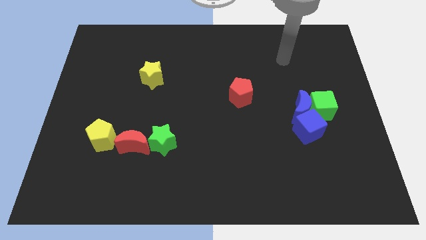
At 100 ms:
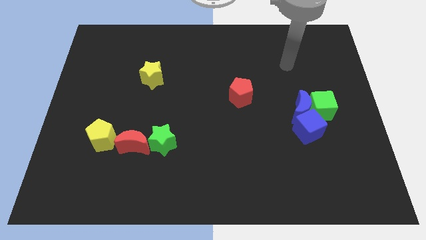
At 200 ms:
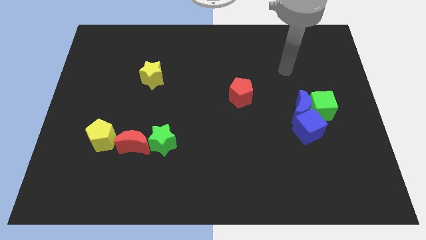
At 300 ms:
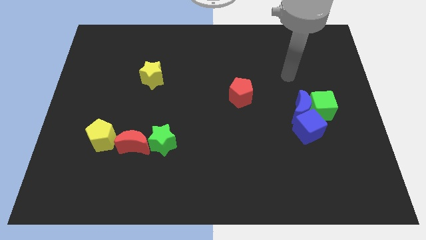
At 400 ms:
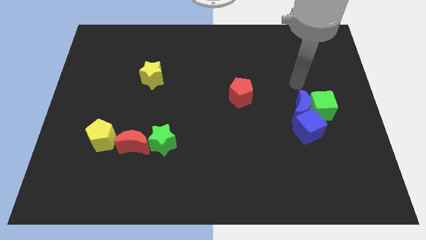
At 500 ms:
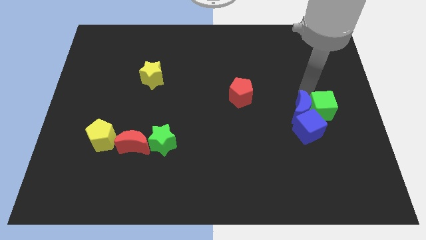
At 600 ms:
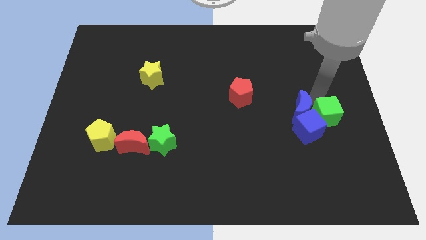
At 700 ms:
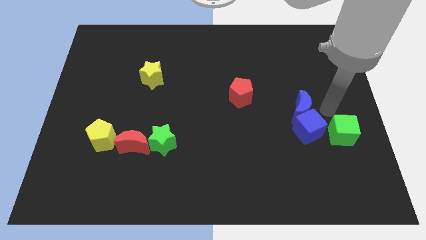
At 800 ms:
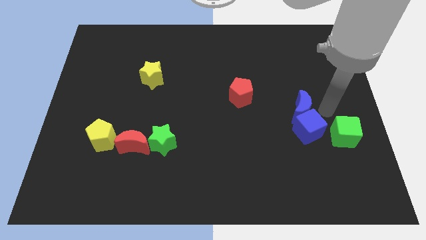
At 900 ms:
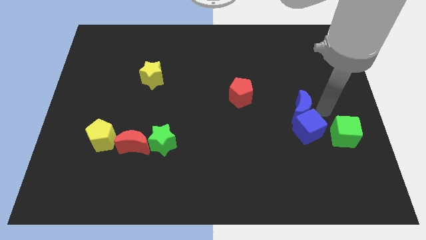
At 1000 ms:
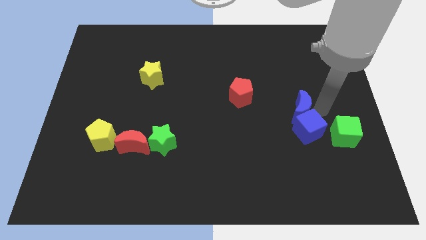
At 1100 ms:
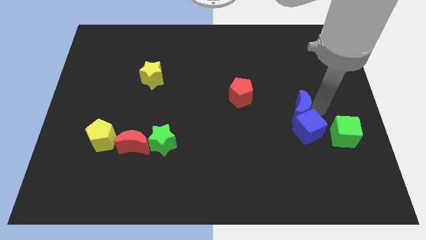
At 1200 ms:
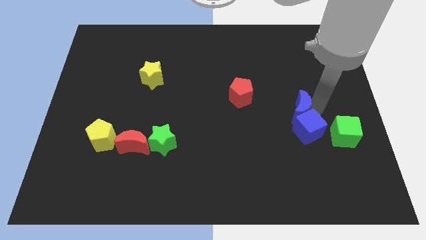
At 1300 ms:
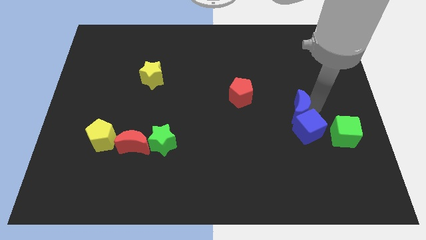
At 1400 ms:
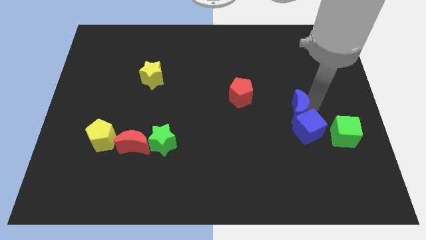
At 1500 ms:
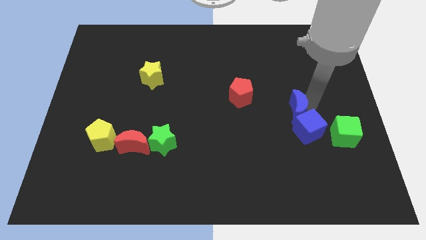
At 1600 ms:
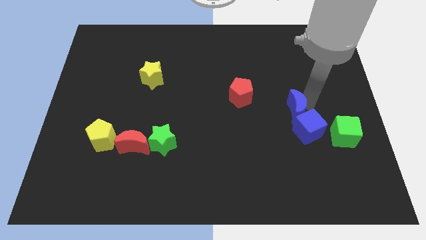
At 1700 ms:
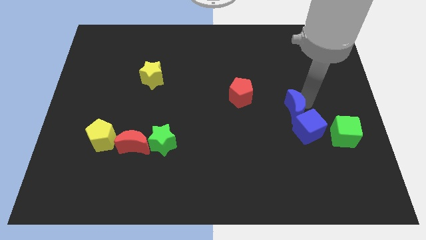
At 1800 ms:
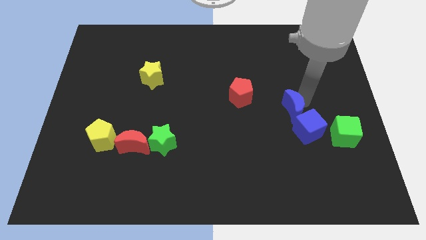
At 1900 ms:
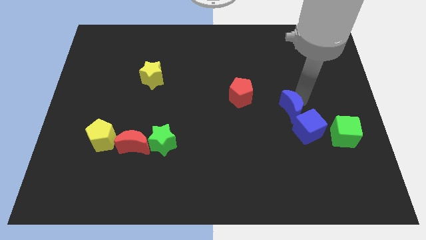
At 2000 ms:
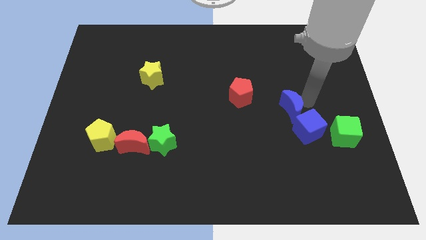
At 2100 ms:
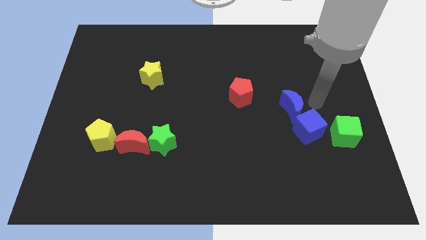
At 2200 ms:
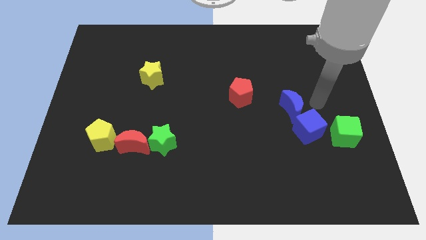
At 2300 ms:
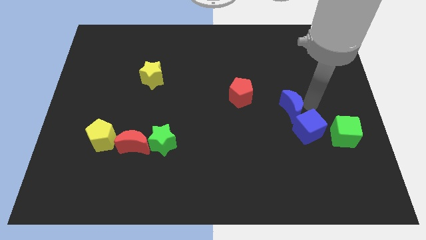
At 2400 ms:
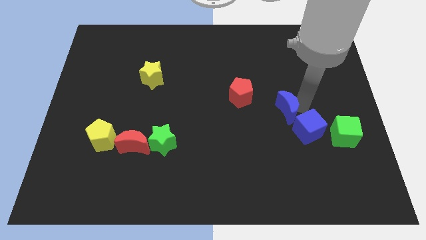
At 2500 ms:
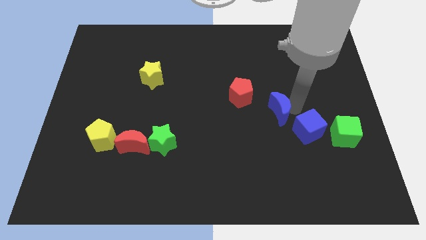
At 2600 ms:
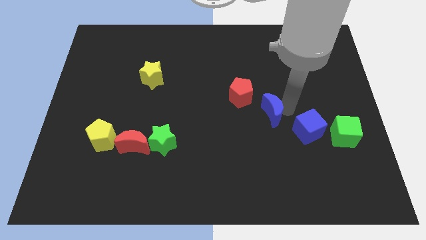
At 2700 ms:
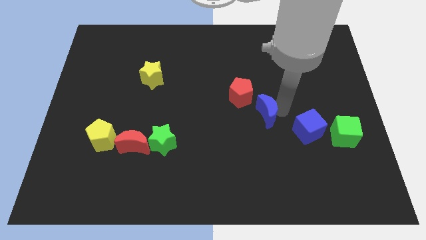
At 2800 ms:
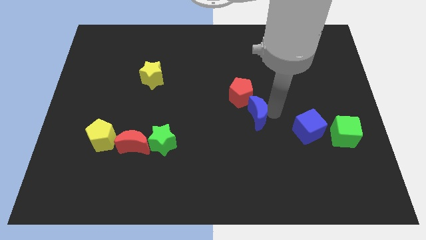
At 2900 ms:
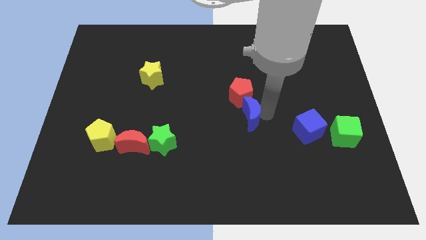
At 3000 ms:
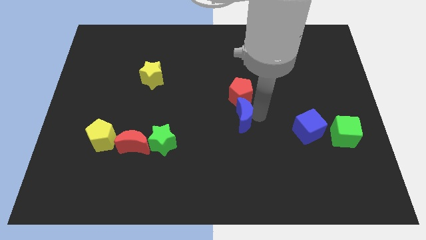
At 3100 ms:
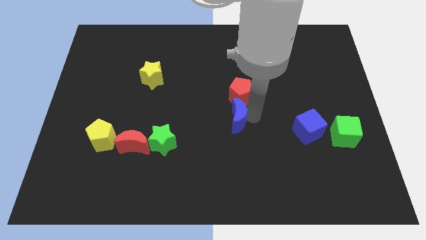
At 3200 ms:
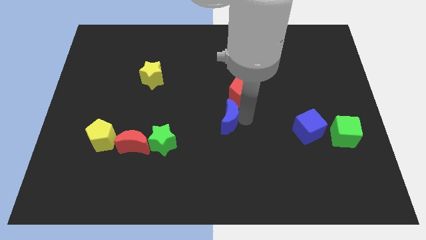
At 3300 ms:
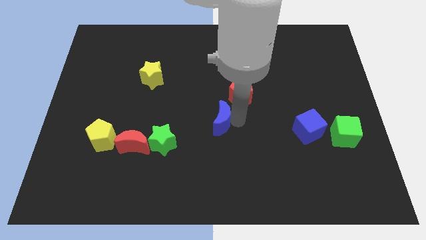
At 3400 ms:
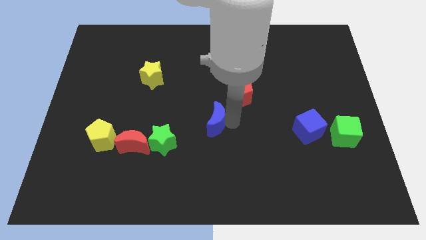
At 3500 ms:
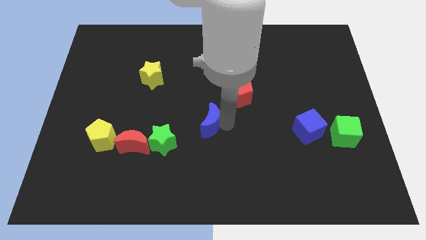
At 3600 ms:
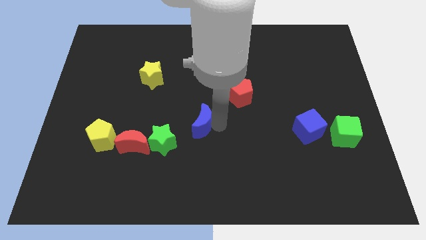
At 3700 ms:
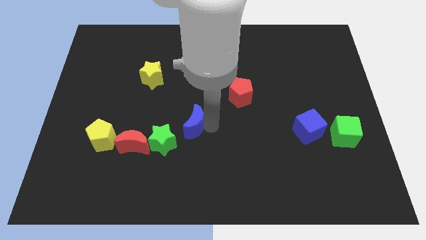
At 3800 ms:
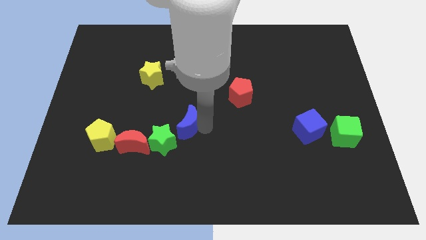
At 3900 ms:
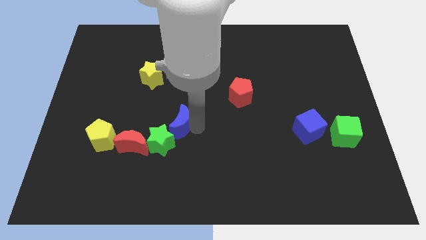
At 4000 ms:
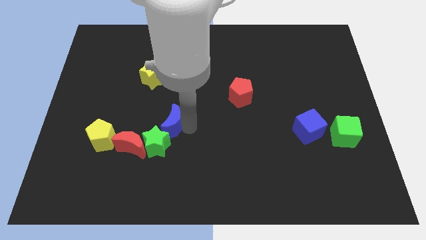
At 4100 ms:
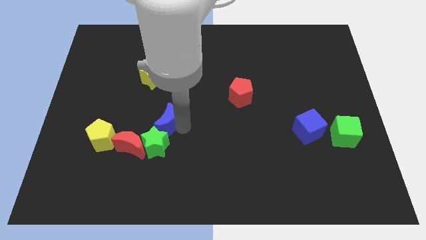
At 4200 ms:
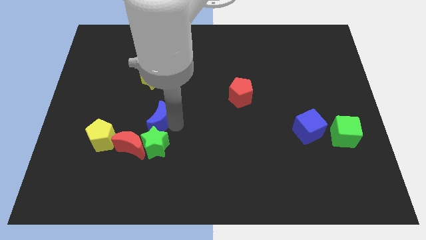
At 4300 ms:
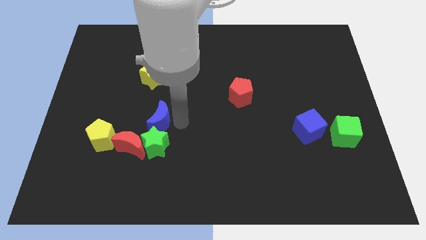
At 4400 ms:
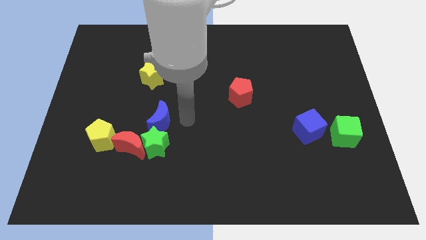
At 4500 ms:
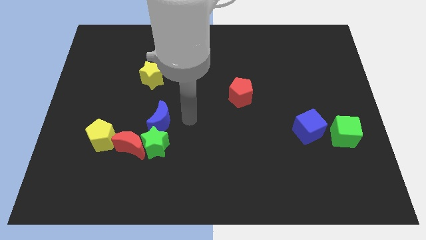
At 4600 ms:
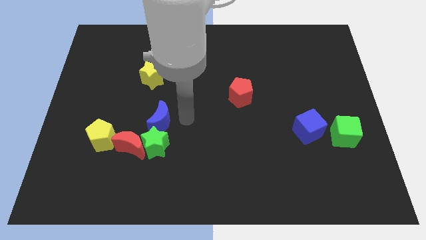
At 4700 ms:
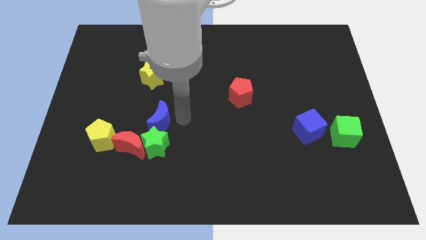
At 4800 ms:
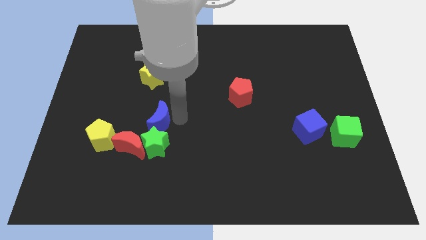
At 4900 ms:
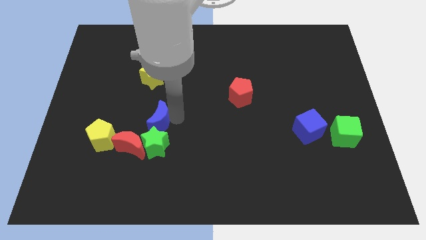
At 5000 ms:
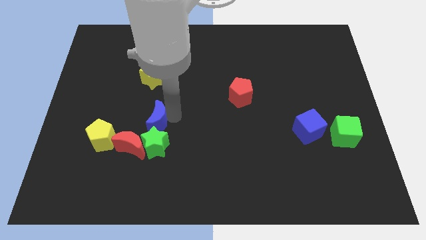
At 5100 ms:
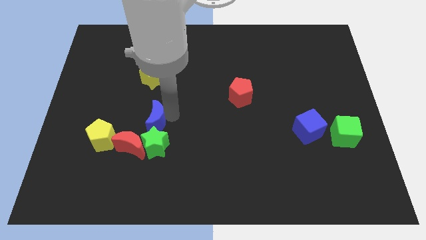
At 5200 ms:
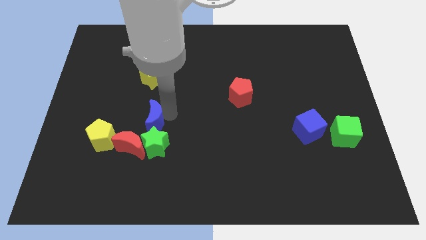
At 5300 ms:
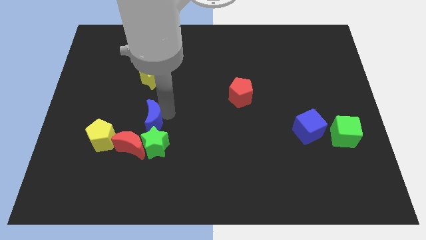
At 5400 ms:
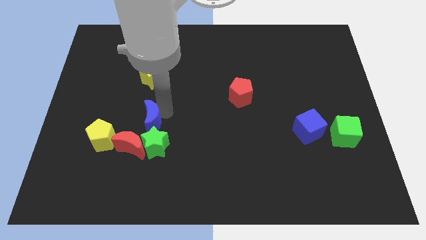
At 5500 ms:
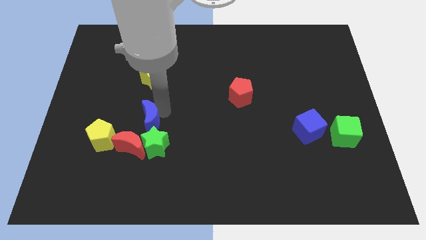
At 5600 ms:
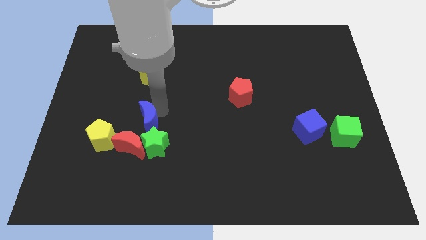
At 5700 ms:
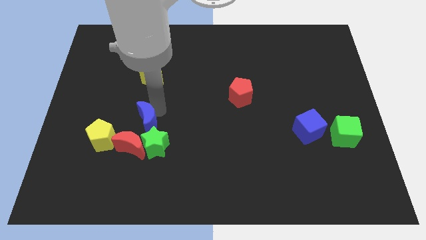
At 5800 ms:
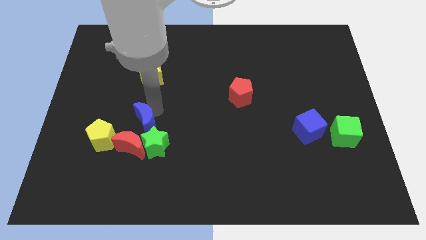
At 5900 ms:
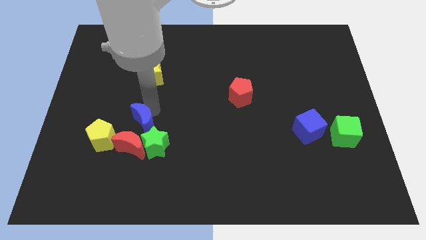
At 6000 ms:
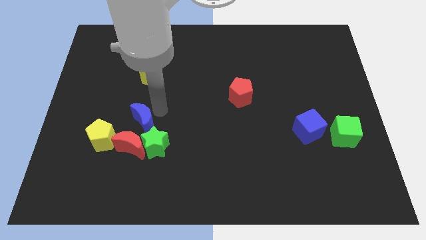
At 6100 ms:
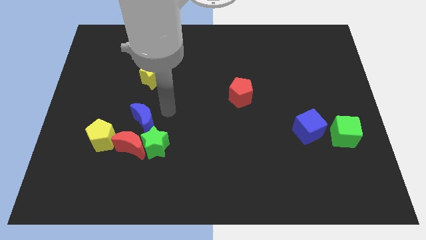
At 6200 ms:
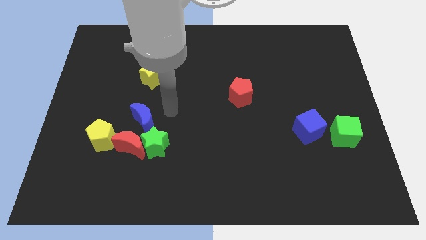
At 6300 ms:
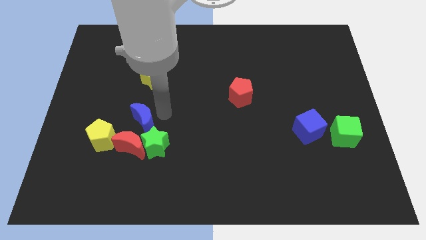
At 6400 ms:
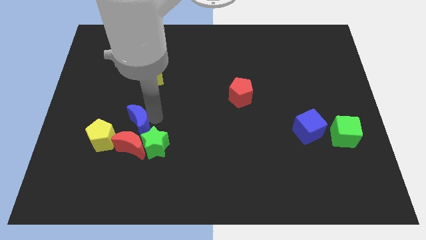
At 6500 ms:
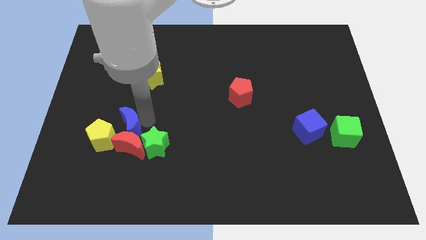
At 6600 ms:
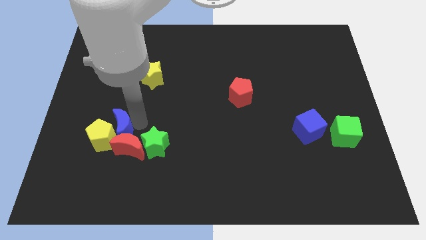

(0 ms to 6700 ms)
slide the blue moon close to the yellow pentagon

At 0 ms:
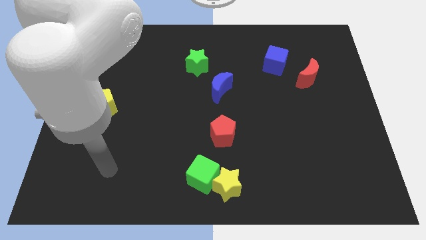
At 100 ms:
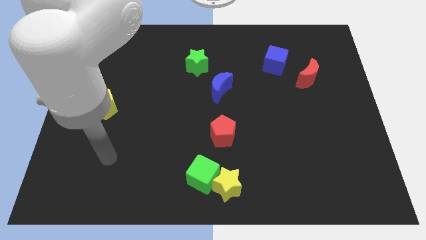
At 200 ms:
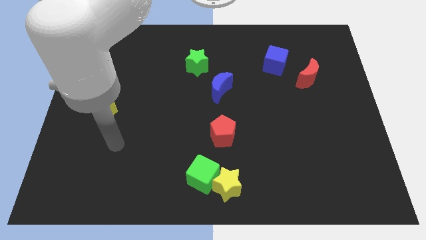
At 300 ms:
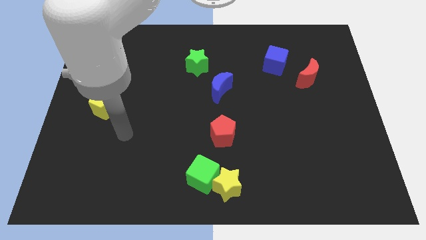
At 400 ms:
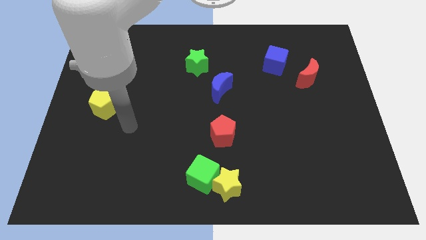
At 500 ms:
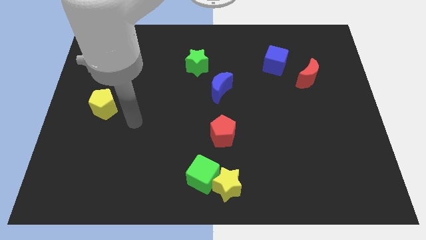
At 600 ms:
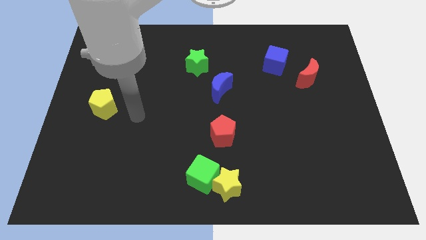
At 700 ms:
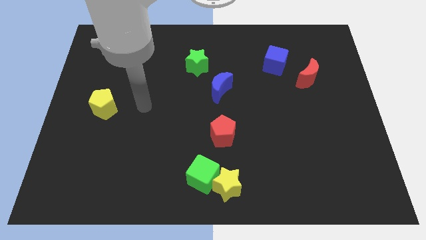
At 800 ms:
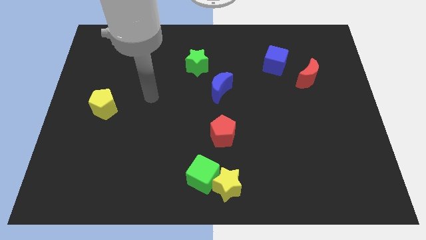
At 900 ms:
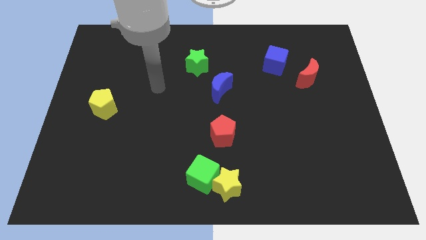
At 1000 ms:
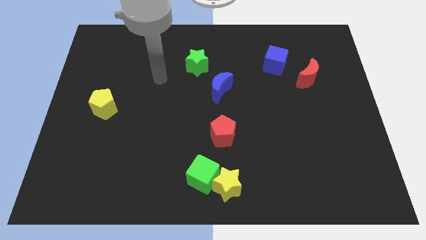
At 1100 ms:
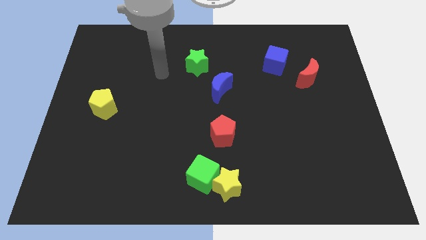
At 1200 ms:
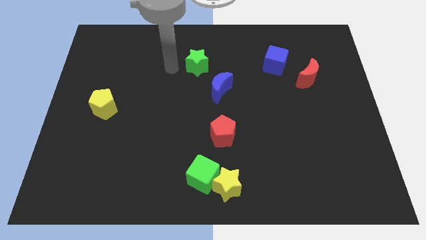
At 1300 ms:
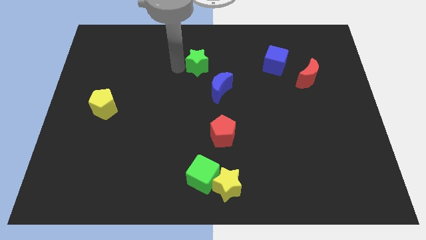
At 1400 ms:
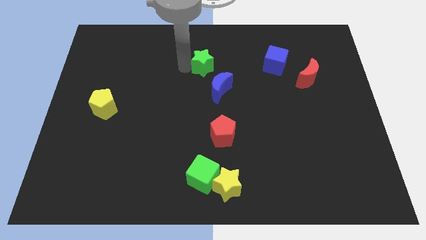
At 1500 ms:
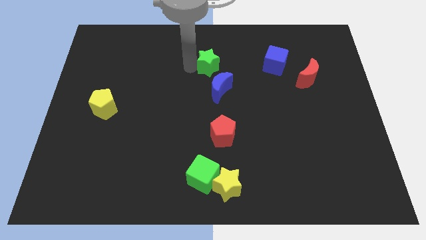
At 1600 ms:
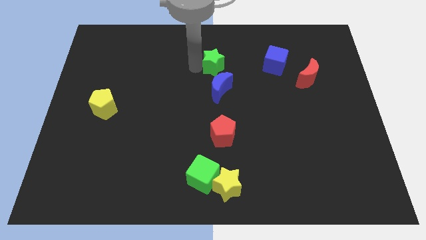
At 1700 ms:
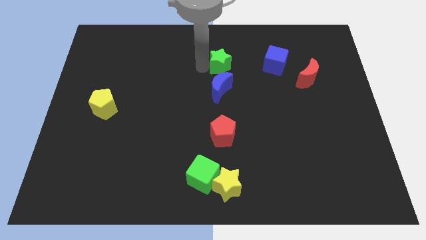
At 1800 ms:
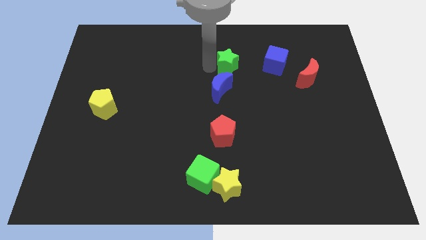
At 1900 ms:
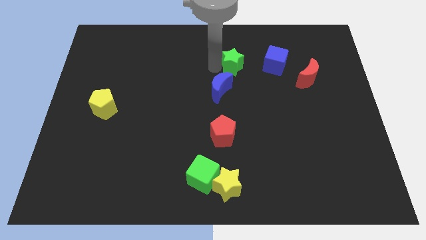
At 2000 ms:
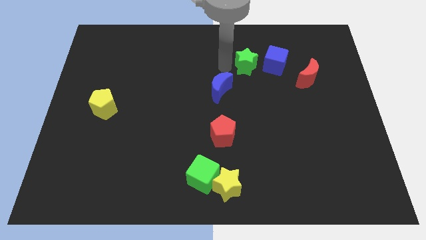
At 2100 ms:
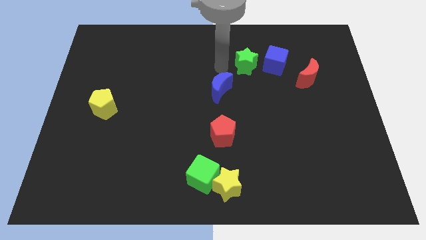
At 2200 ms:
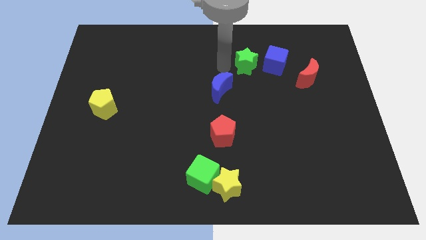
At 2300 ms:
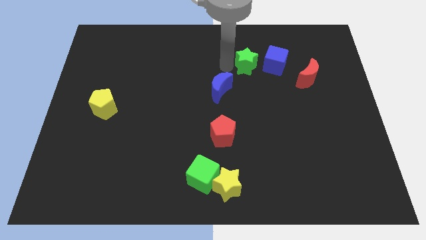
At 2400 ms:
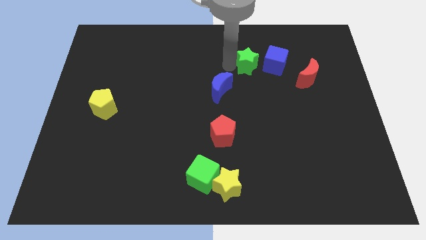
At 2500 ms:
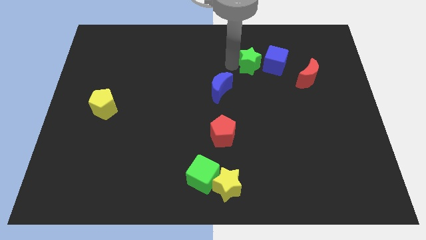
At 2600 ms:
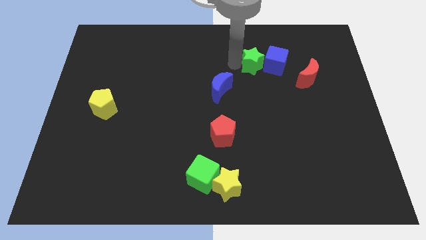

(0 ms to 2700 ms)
slide the green star to the blue cube
